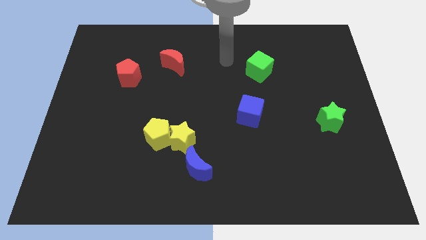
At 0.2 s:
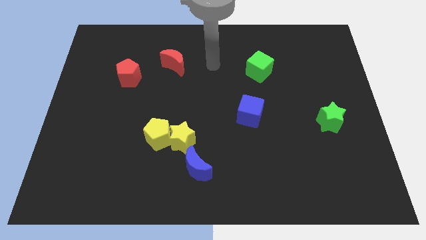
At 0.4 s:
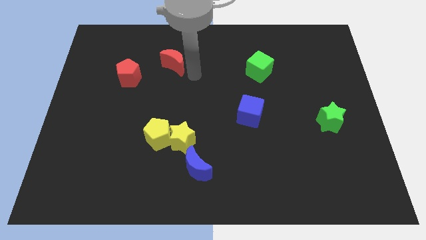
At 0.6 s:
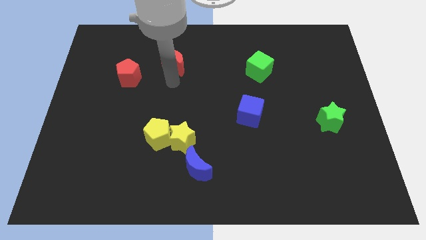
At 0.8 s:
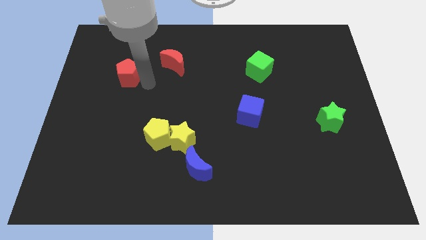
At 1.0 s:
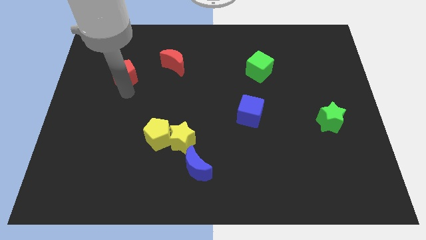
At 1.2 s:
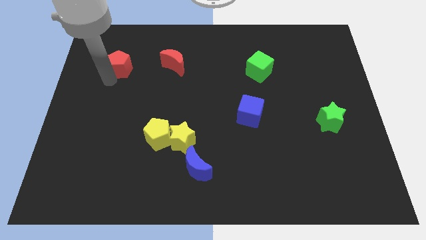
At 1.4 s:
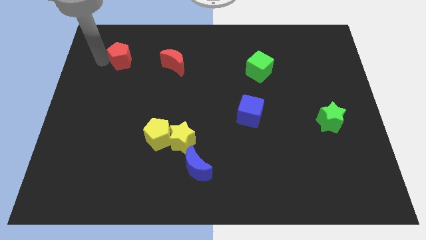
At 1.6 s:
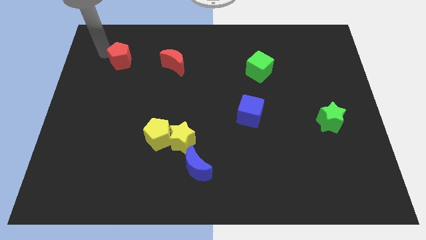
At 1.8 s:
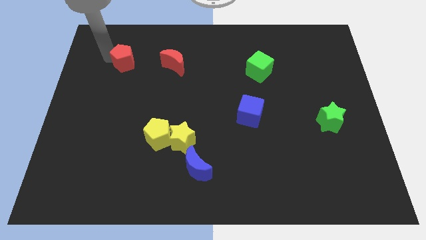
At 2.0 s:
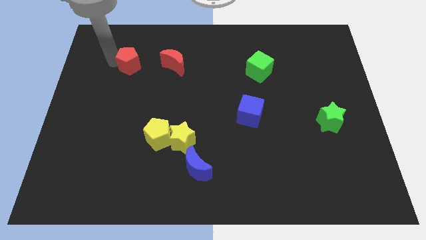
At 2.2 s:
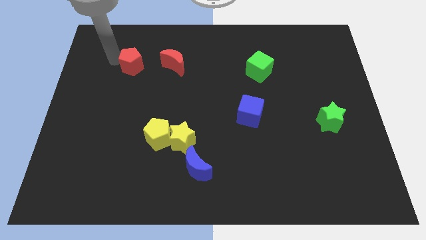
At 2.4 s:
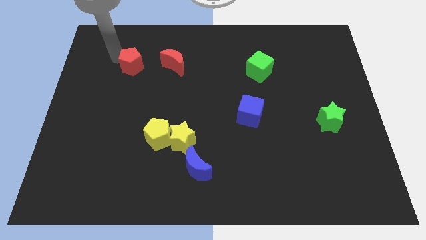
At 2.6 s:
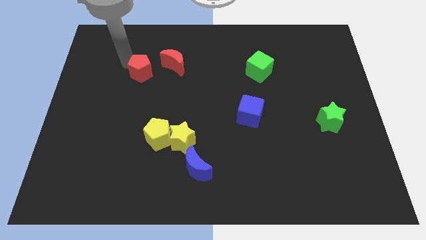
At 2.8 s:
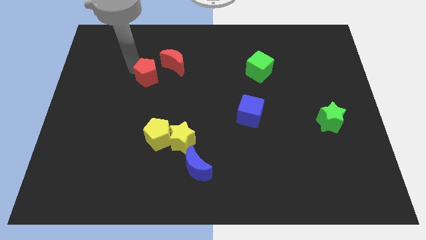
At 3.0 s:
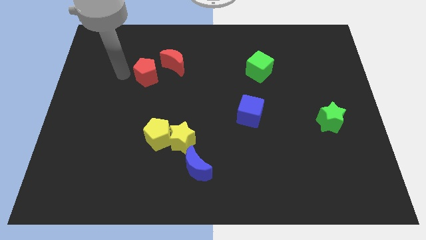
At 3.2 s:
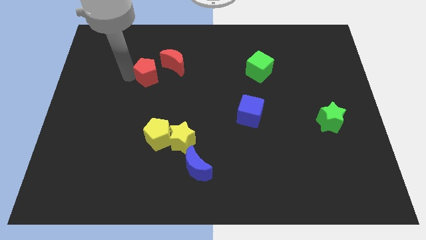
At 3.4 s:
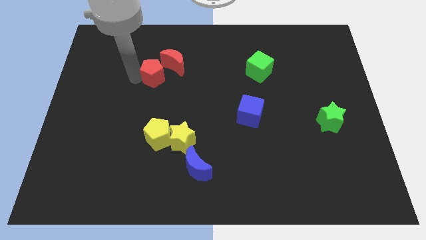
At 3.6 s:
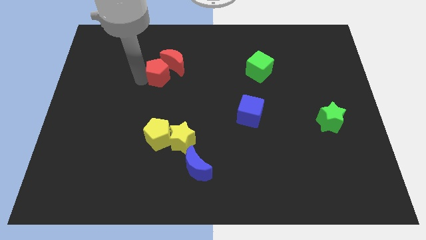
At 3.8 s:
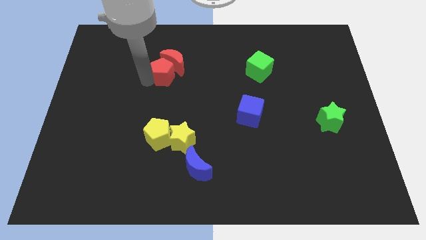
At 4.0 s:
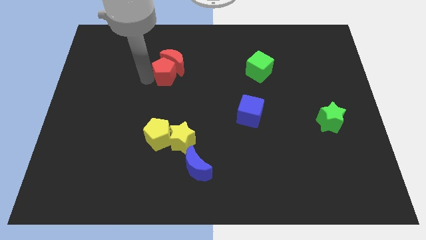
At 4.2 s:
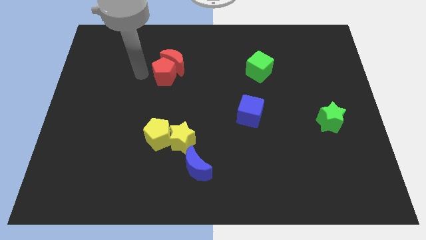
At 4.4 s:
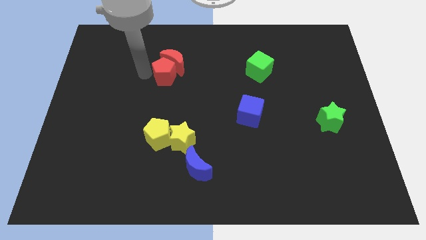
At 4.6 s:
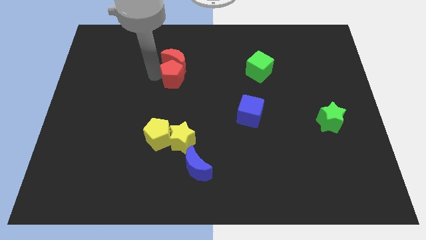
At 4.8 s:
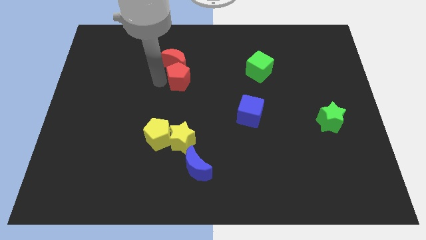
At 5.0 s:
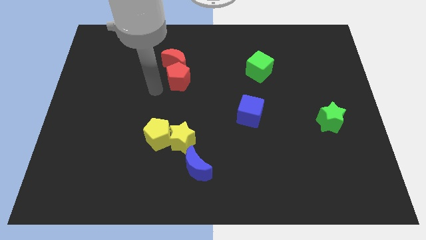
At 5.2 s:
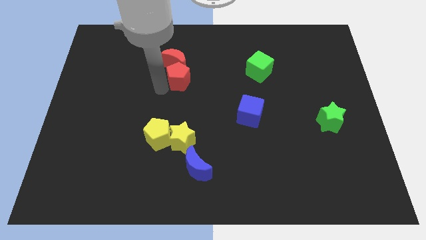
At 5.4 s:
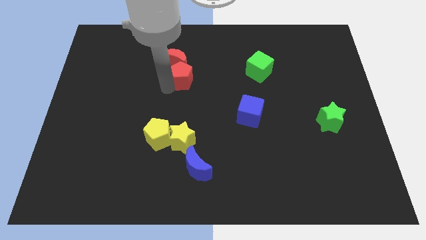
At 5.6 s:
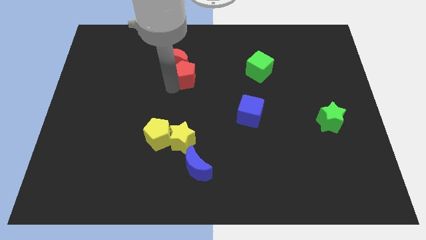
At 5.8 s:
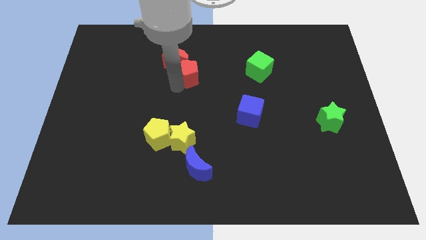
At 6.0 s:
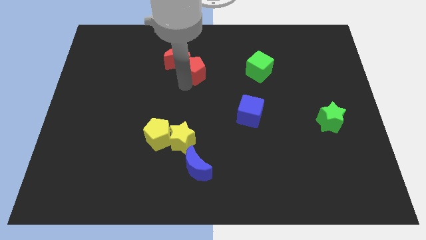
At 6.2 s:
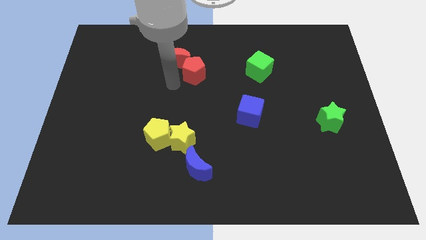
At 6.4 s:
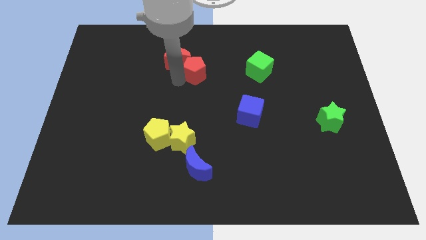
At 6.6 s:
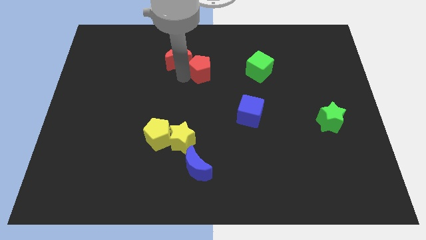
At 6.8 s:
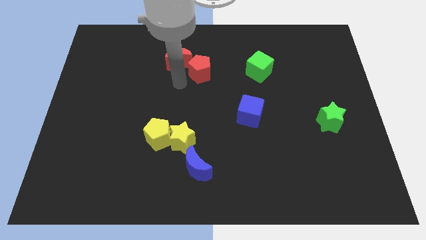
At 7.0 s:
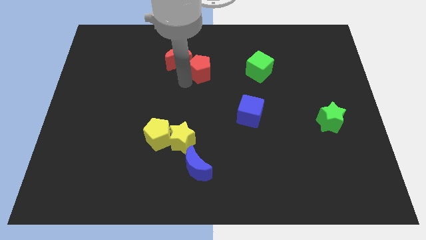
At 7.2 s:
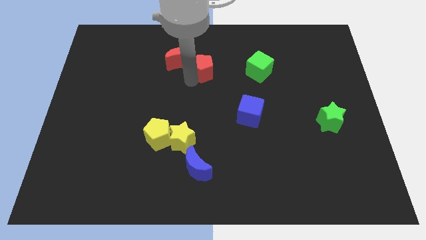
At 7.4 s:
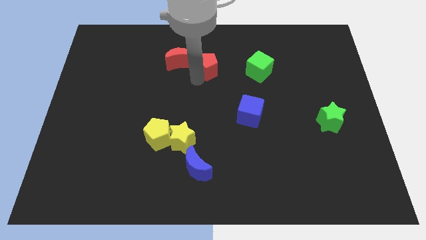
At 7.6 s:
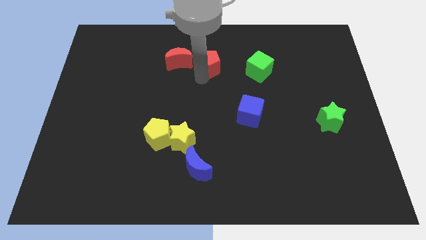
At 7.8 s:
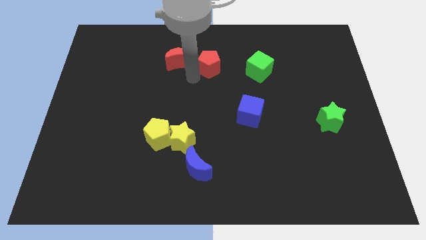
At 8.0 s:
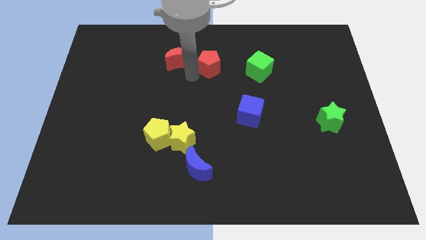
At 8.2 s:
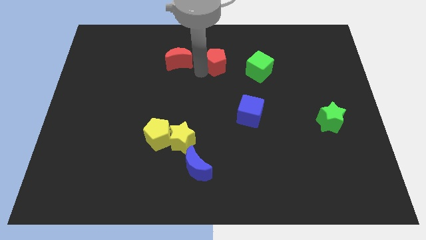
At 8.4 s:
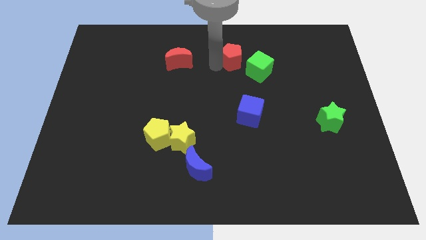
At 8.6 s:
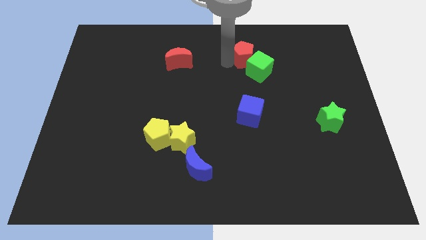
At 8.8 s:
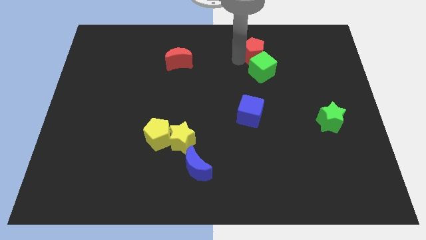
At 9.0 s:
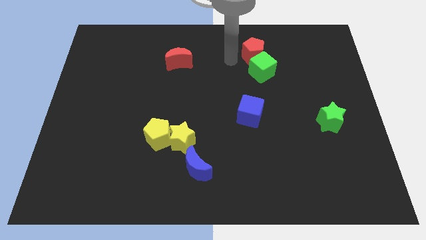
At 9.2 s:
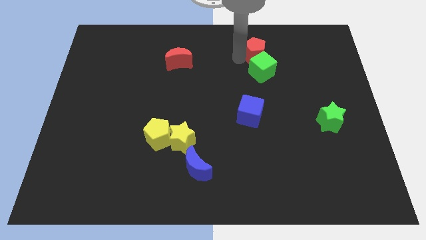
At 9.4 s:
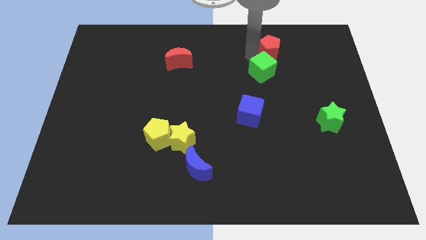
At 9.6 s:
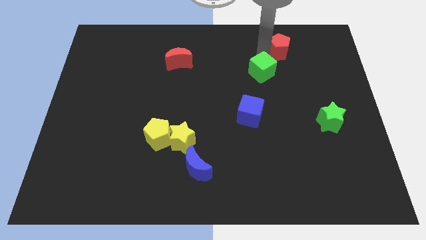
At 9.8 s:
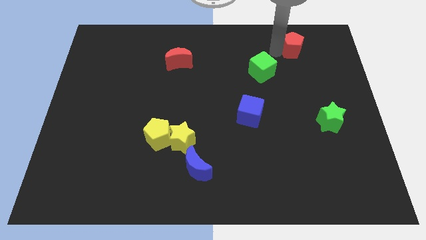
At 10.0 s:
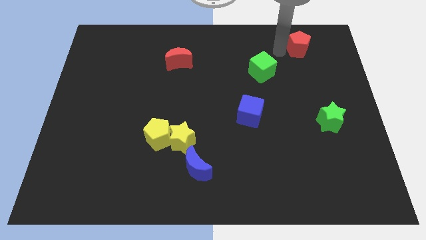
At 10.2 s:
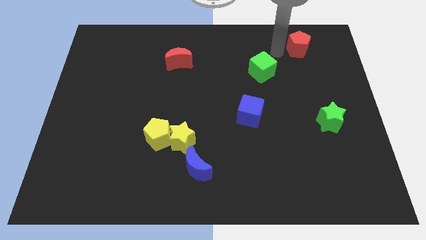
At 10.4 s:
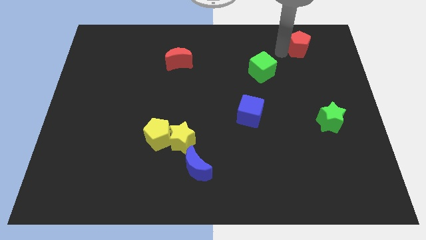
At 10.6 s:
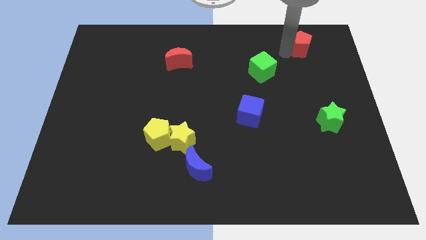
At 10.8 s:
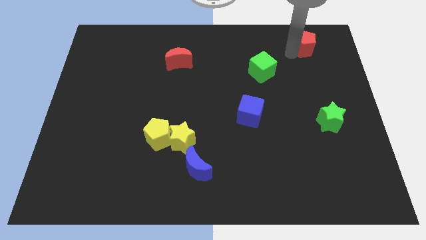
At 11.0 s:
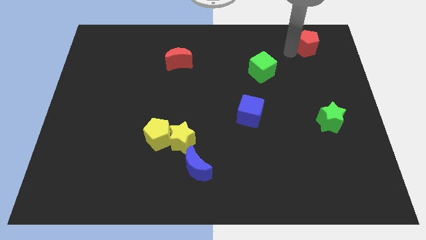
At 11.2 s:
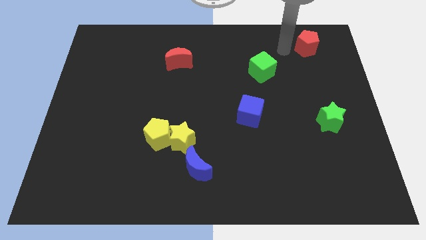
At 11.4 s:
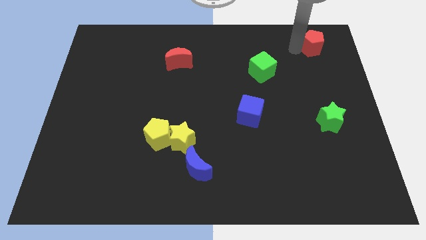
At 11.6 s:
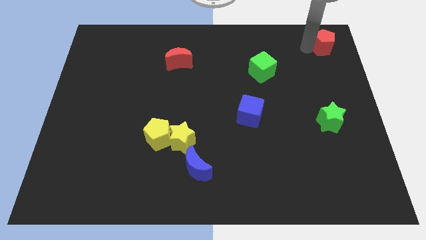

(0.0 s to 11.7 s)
slide the red pentagon to the upper right corner
